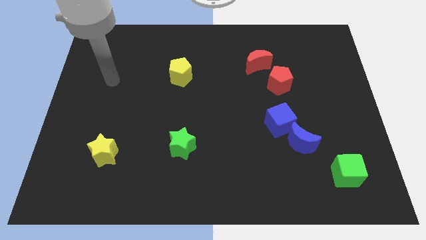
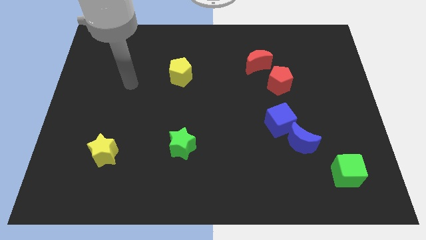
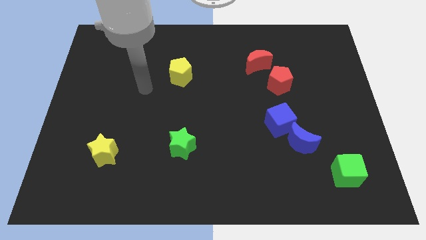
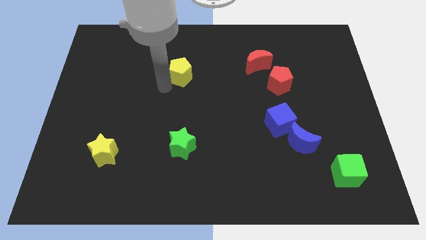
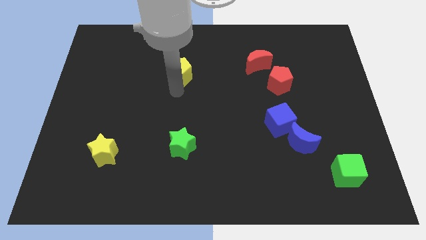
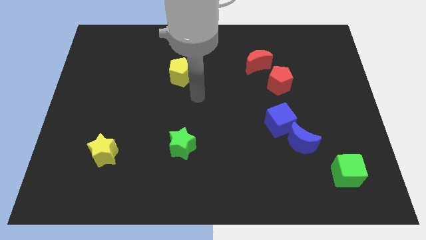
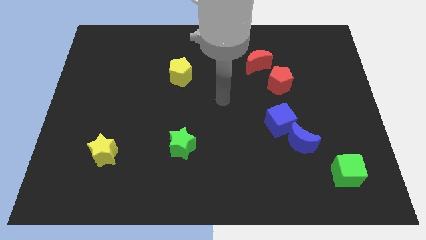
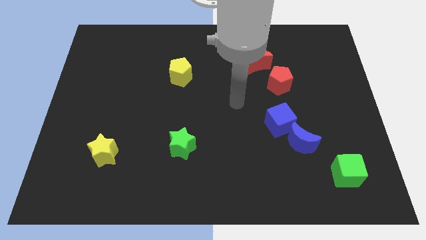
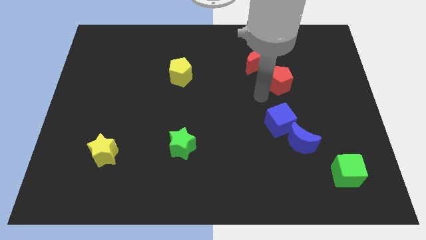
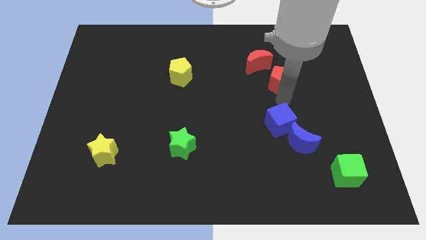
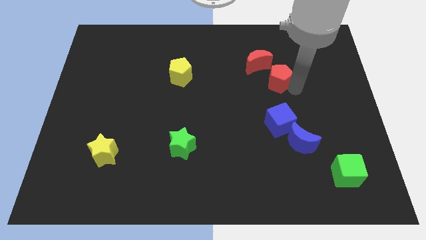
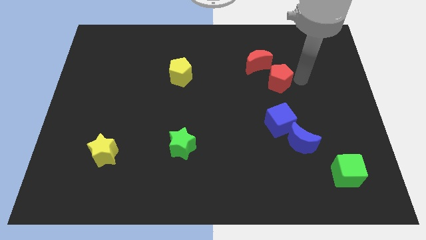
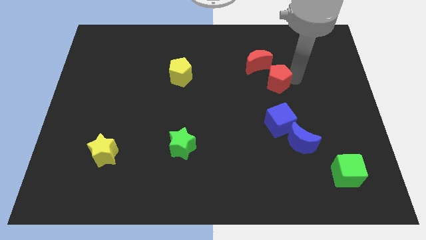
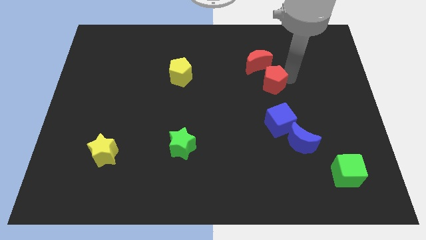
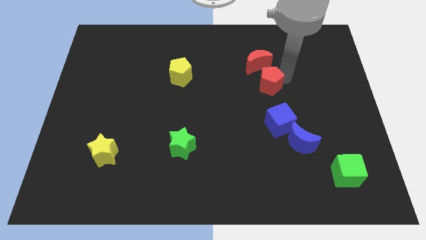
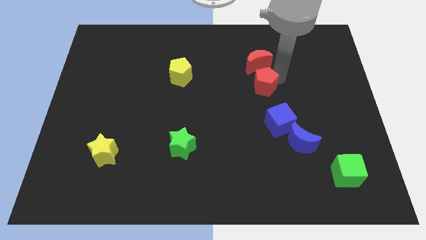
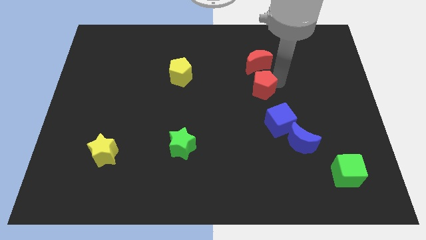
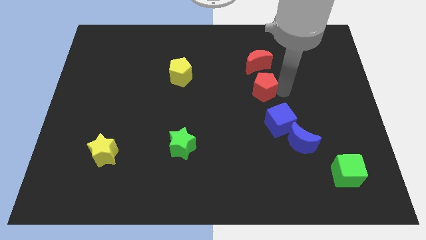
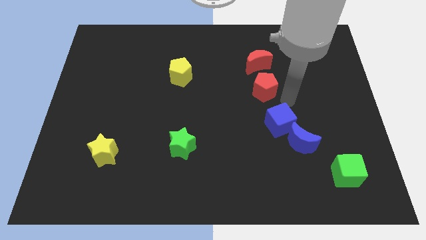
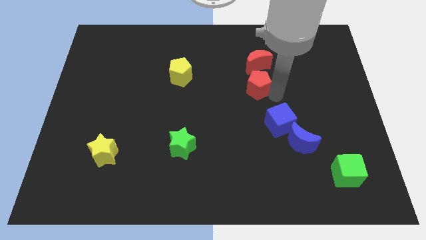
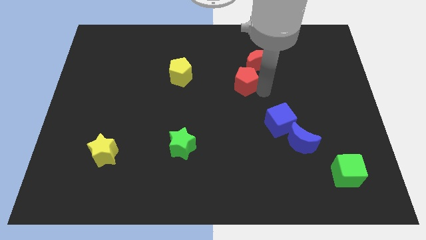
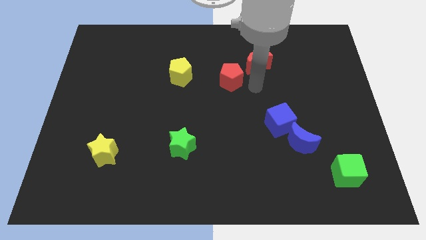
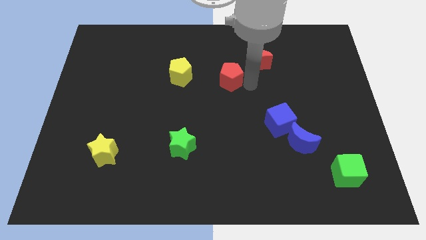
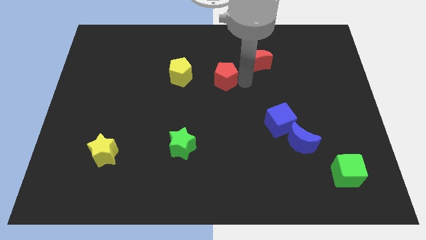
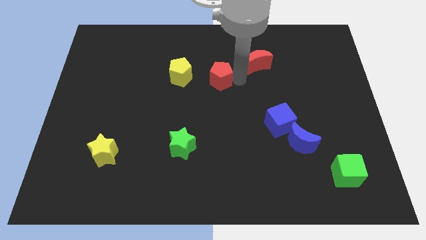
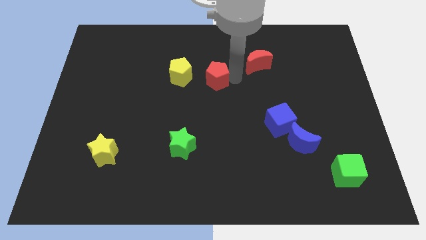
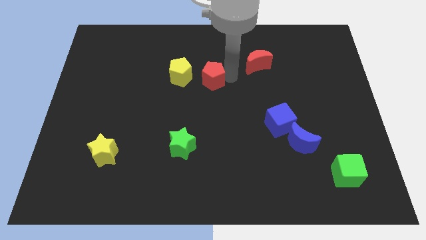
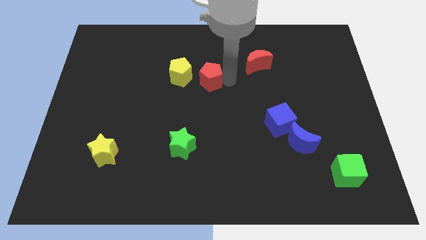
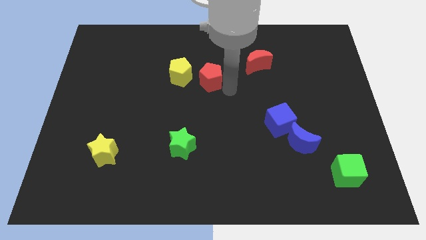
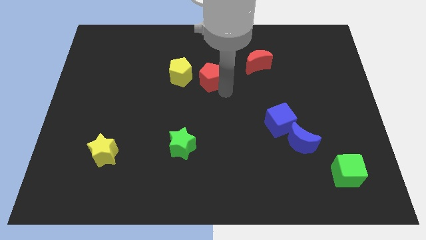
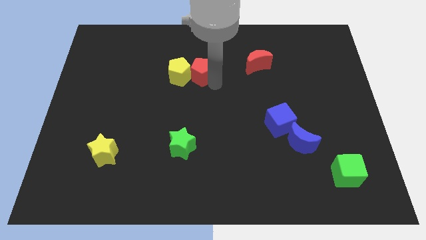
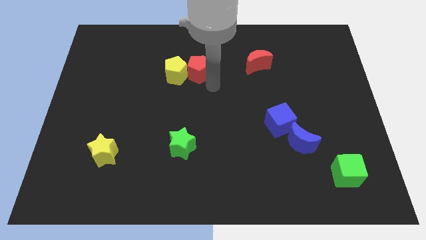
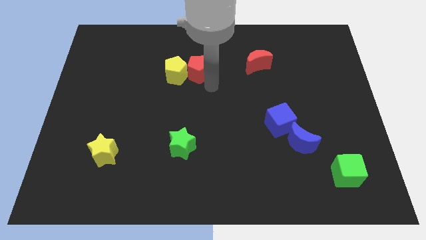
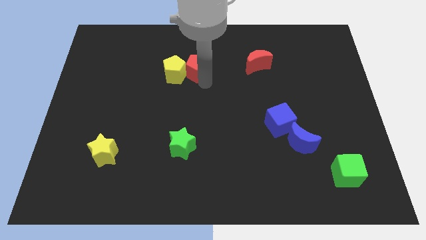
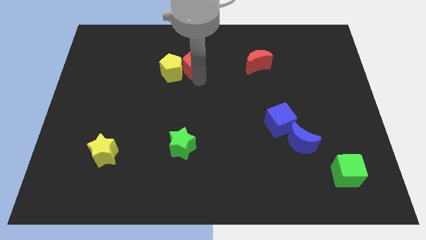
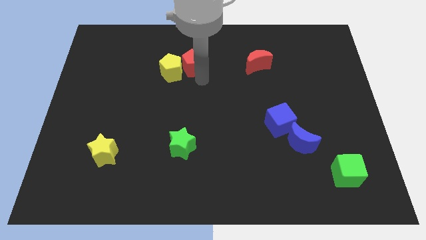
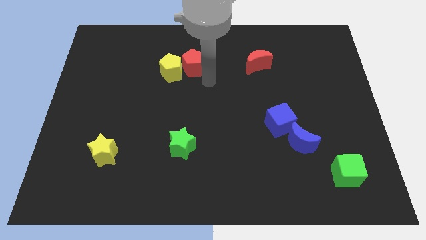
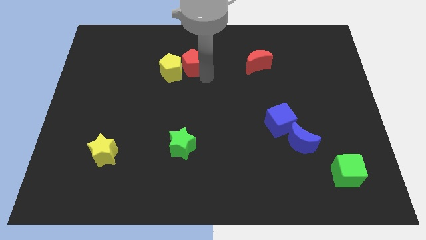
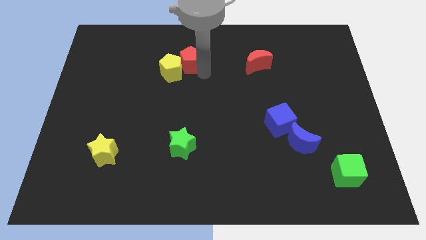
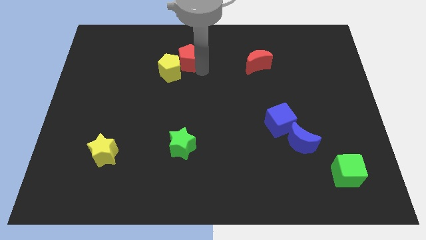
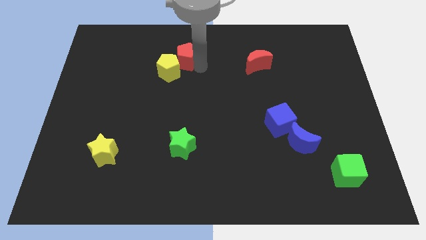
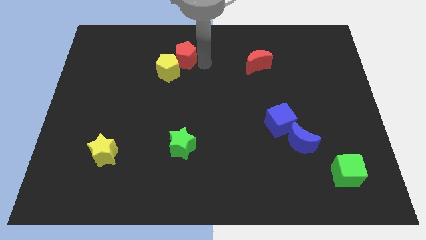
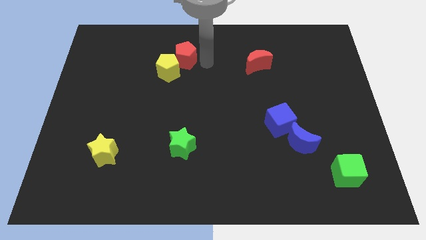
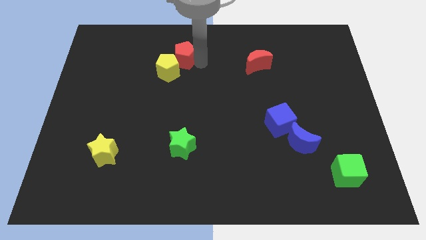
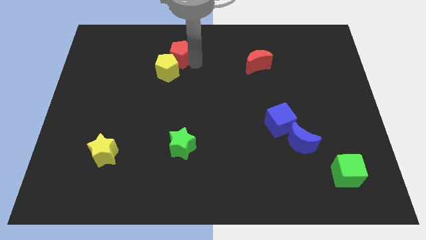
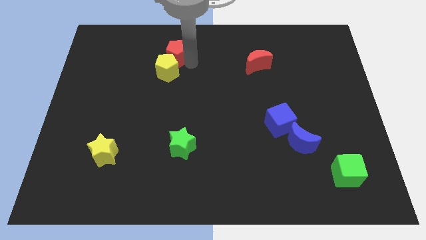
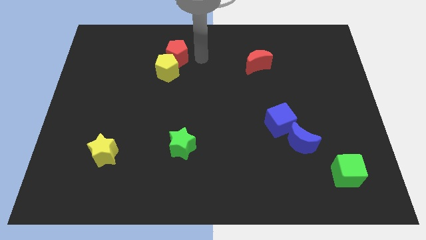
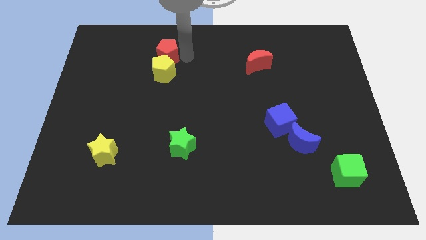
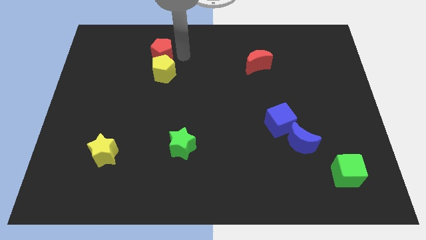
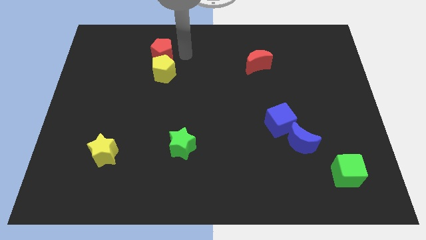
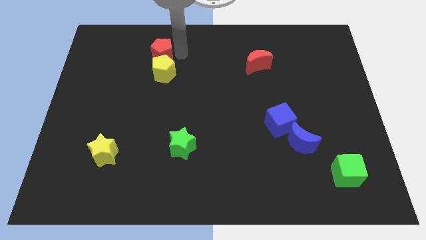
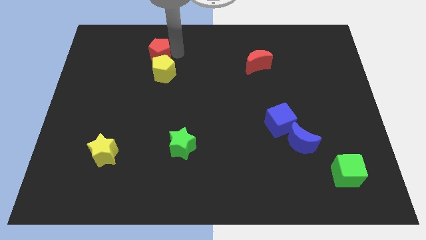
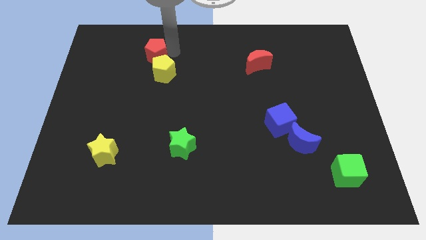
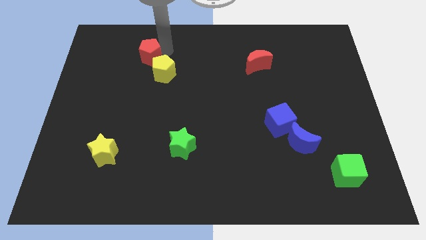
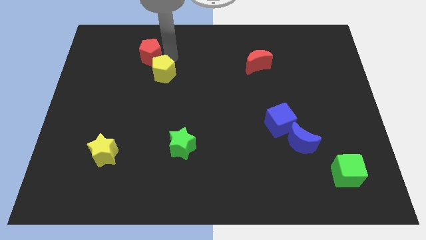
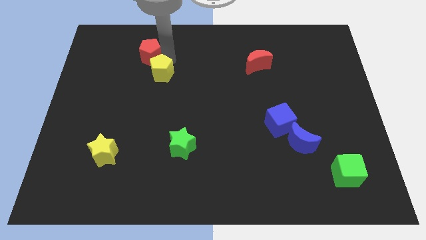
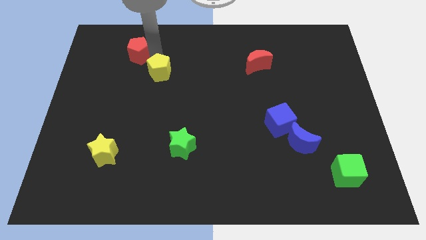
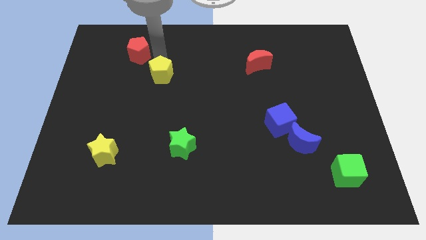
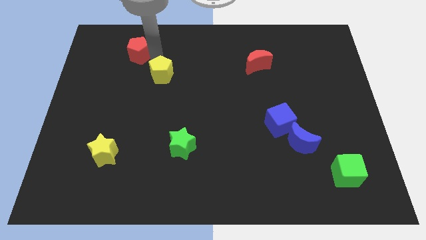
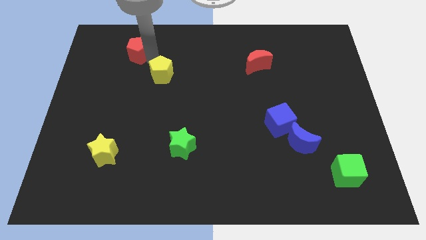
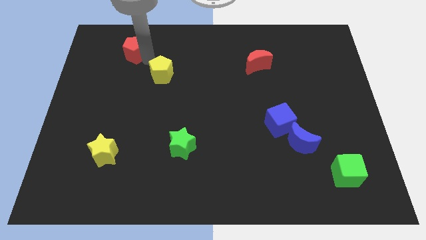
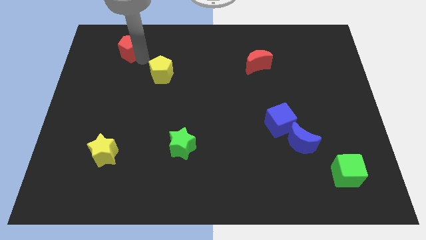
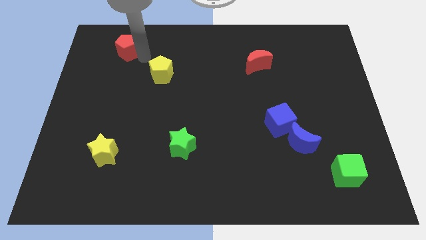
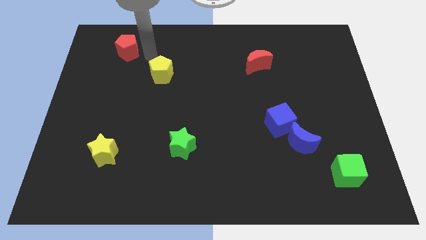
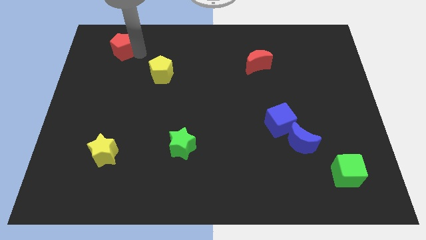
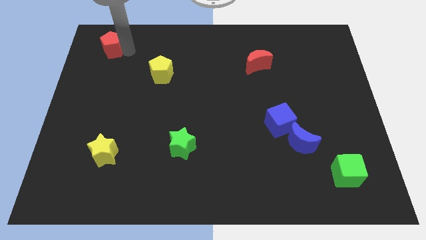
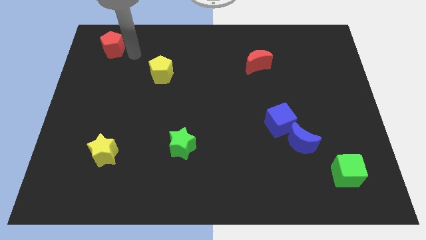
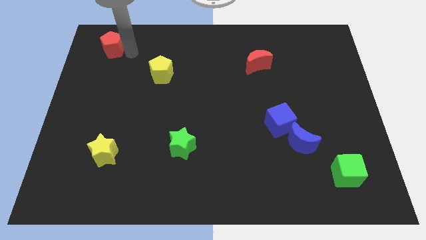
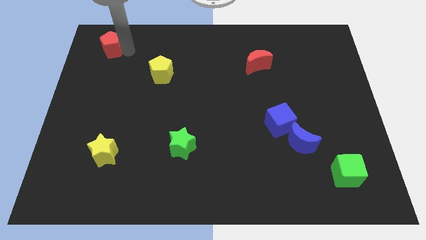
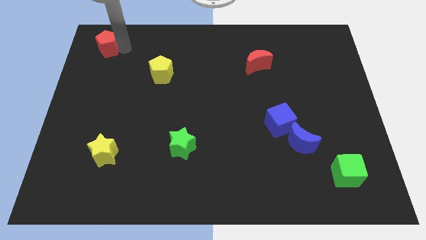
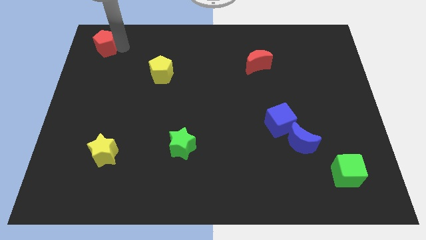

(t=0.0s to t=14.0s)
put the red pentagon to the top left corner
